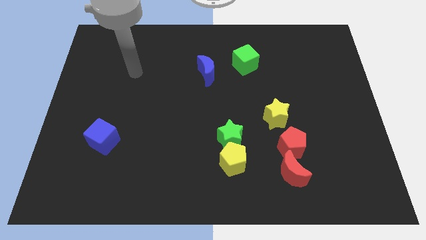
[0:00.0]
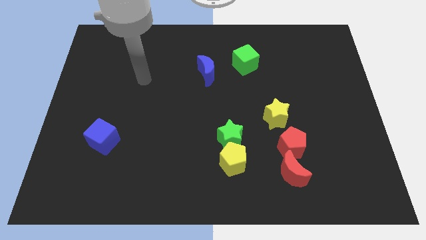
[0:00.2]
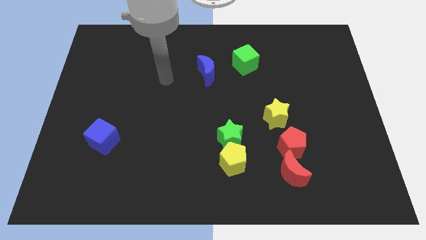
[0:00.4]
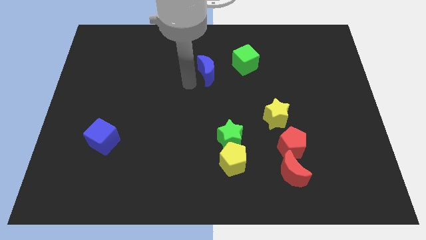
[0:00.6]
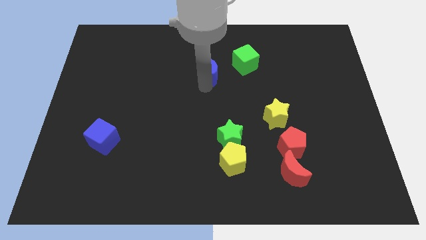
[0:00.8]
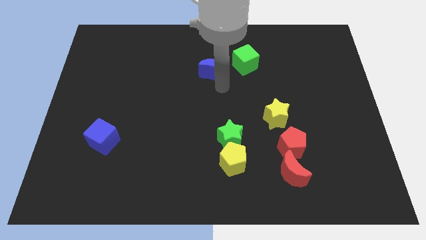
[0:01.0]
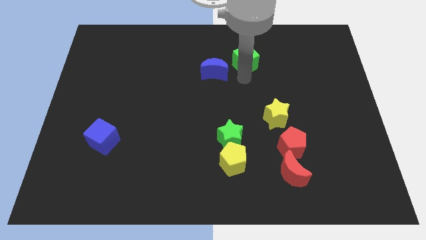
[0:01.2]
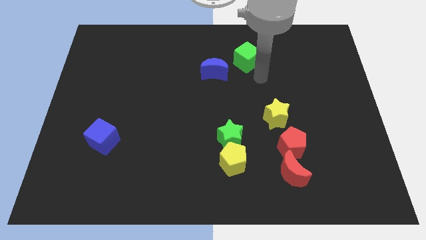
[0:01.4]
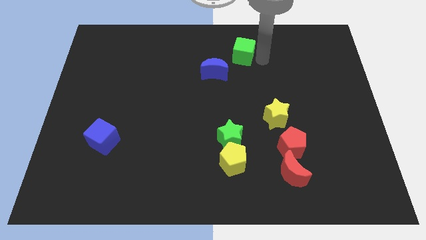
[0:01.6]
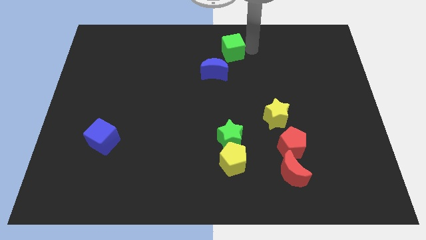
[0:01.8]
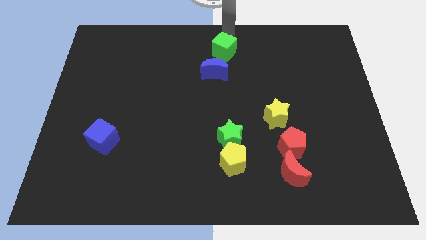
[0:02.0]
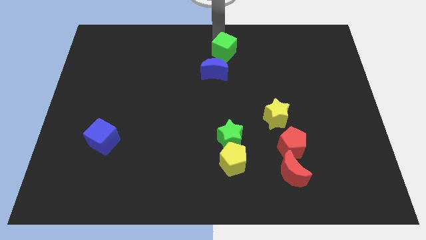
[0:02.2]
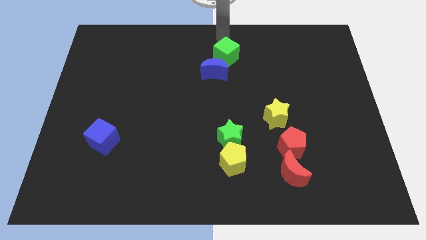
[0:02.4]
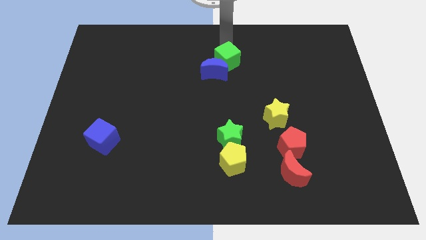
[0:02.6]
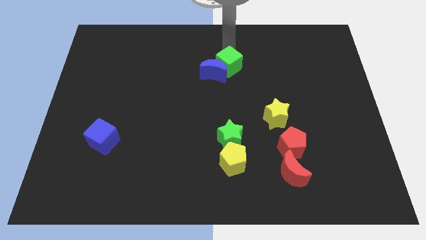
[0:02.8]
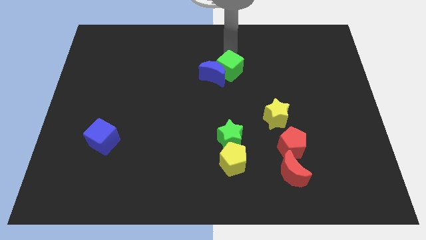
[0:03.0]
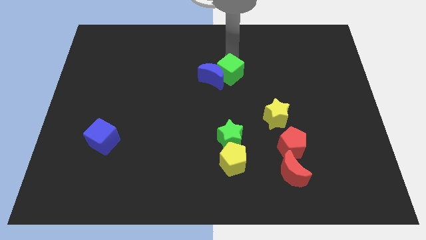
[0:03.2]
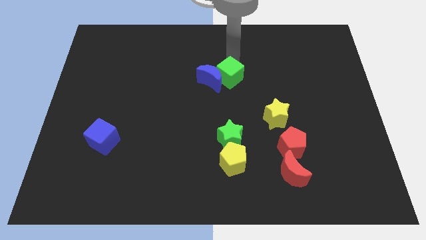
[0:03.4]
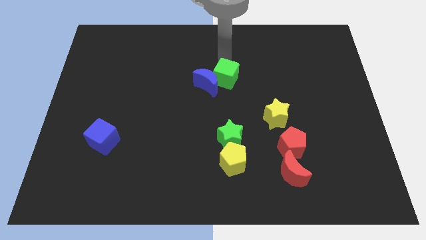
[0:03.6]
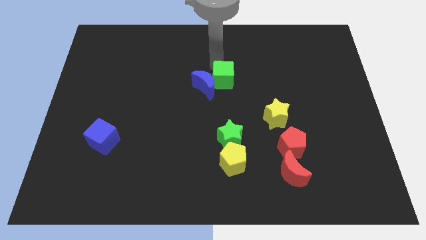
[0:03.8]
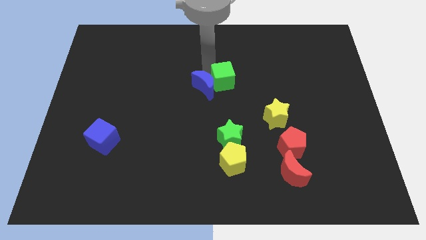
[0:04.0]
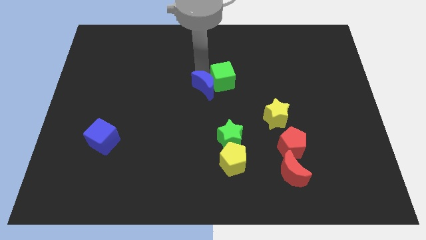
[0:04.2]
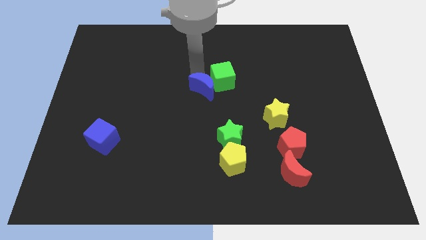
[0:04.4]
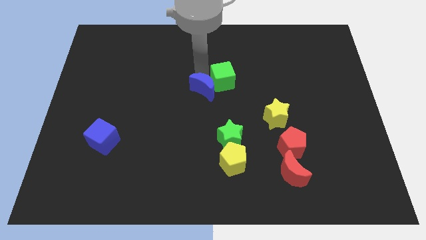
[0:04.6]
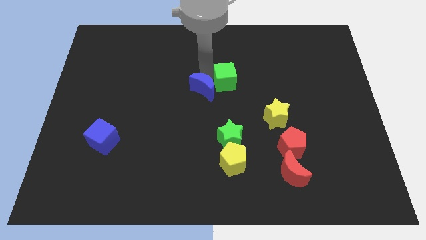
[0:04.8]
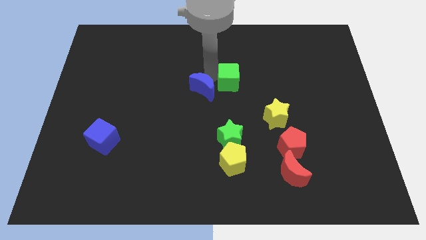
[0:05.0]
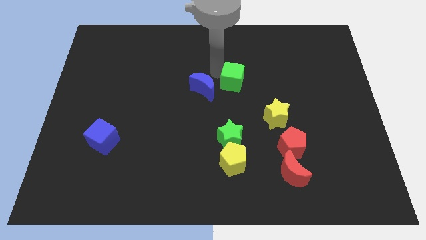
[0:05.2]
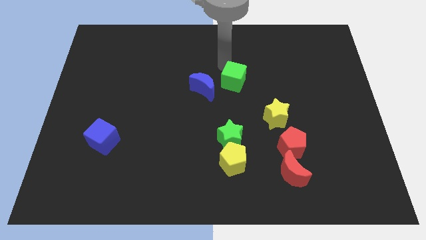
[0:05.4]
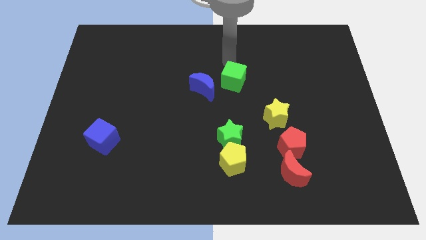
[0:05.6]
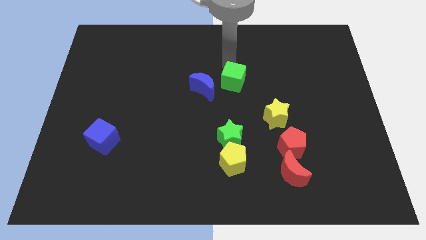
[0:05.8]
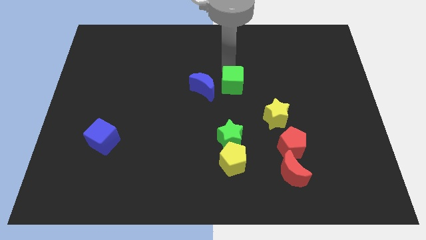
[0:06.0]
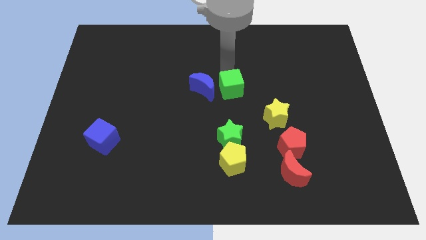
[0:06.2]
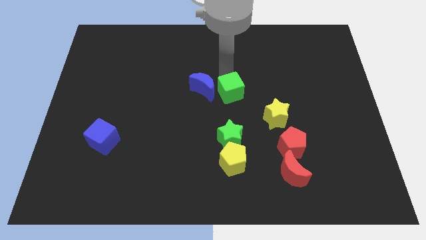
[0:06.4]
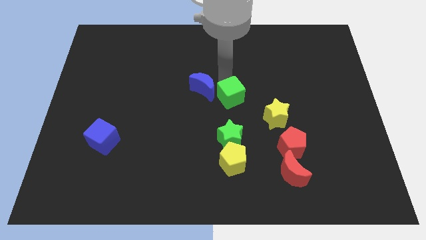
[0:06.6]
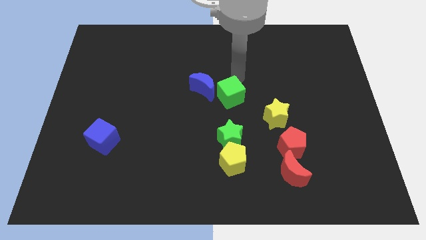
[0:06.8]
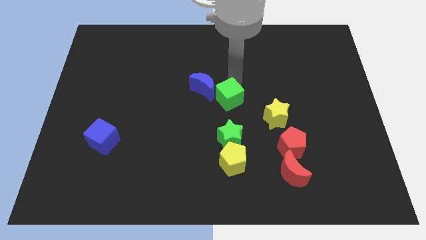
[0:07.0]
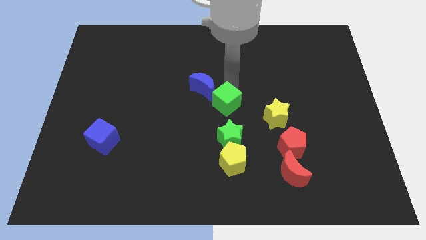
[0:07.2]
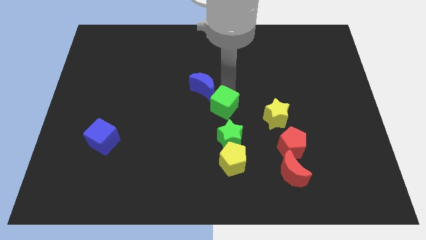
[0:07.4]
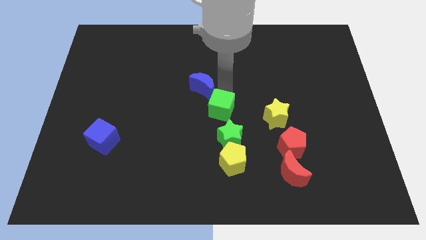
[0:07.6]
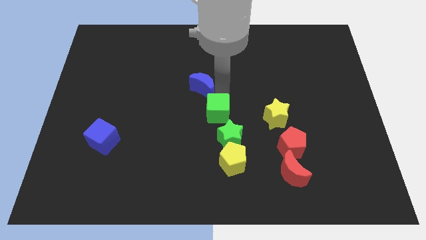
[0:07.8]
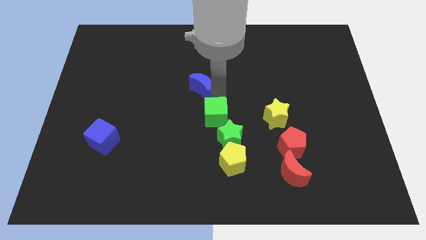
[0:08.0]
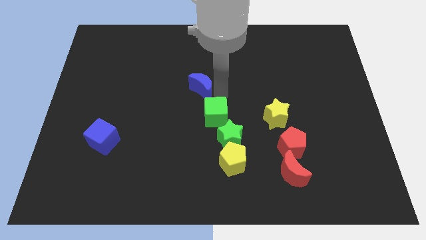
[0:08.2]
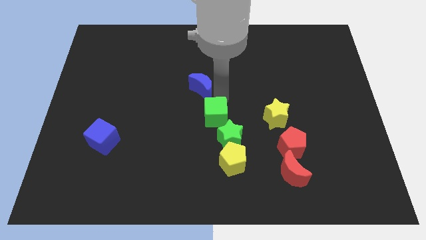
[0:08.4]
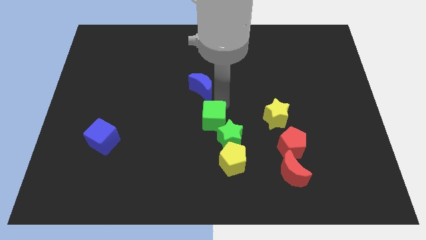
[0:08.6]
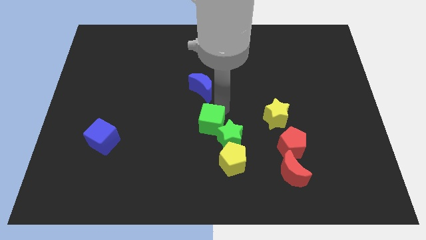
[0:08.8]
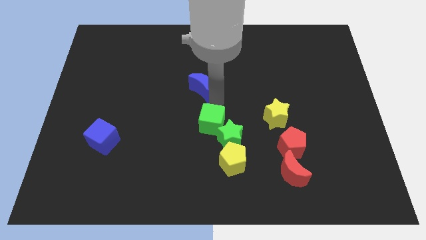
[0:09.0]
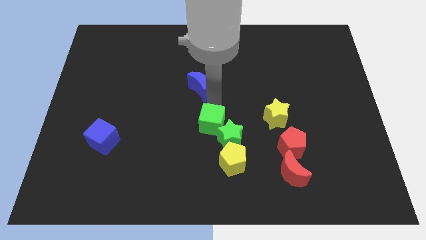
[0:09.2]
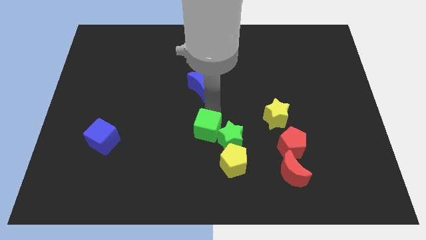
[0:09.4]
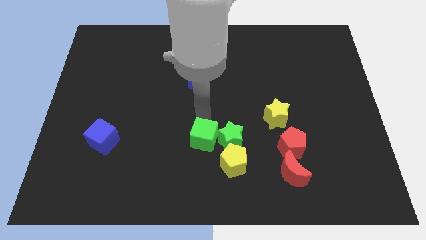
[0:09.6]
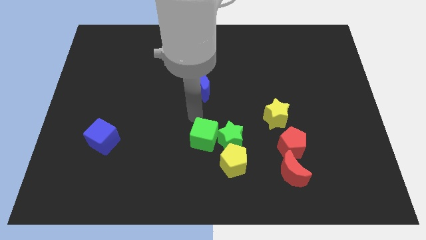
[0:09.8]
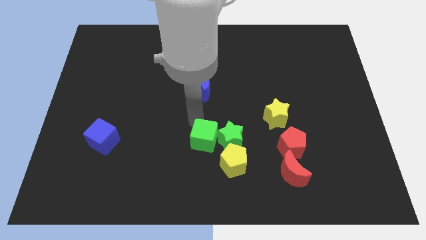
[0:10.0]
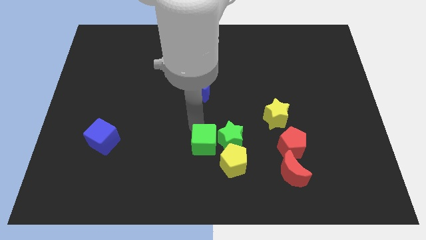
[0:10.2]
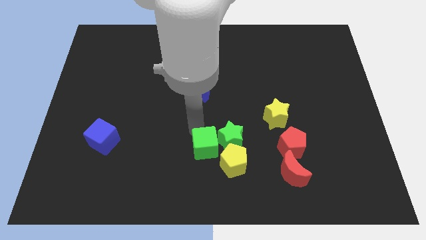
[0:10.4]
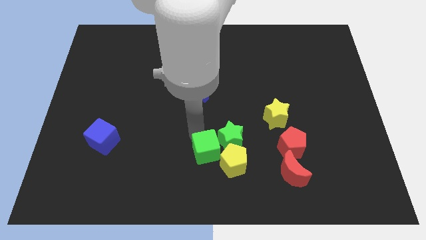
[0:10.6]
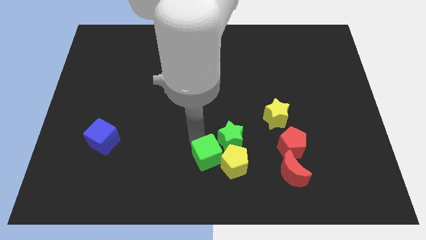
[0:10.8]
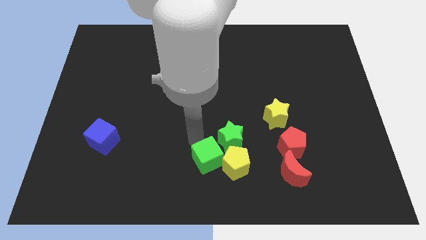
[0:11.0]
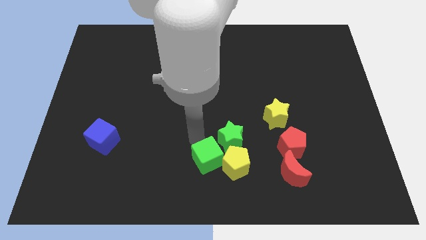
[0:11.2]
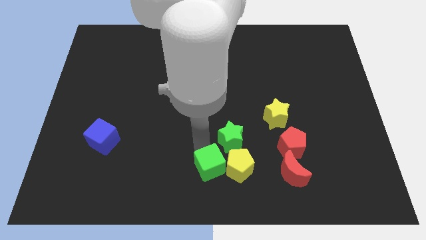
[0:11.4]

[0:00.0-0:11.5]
push the green cube to the bottom side of the green star

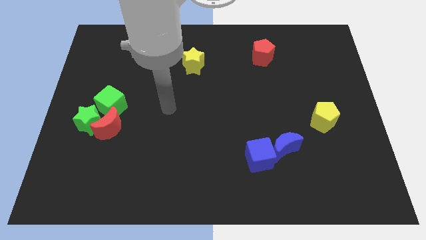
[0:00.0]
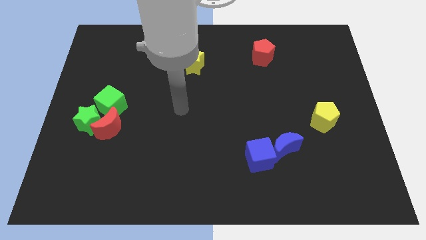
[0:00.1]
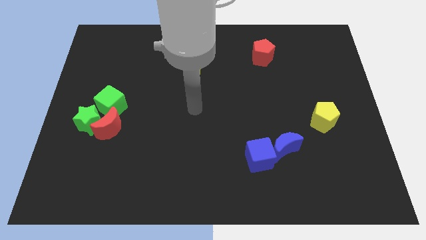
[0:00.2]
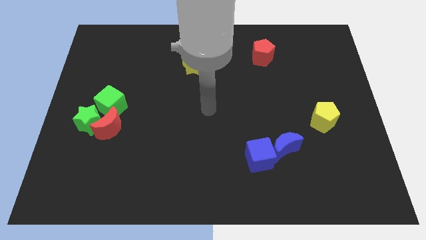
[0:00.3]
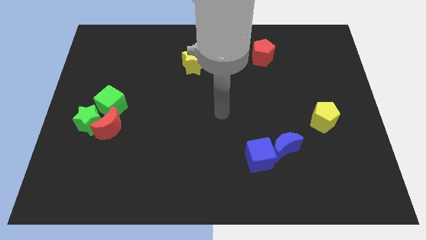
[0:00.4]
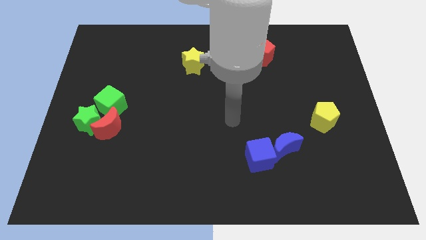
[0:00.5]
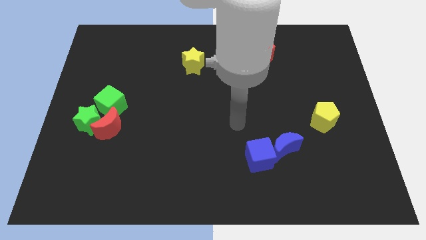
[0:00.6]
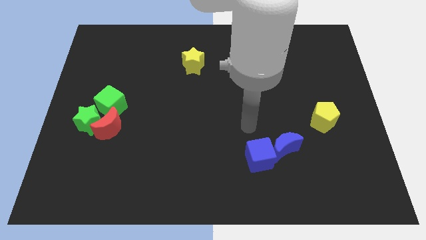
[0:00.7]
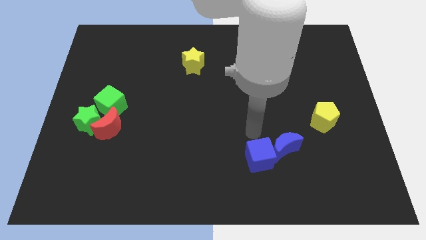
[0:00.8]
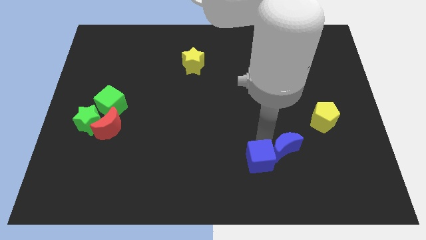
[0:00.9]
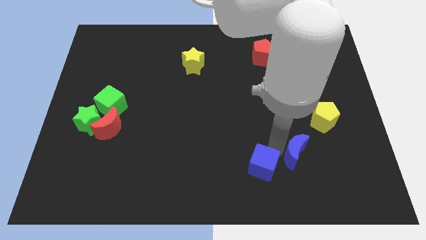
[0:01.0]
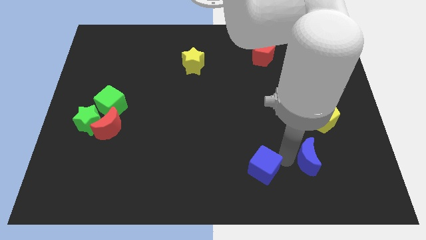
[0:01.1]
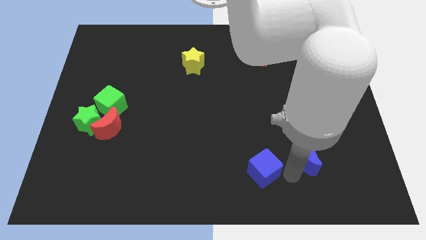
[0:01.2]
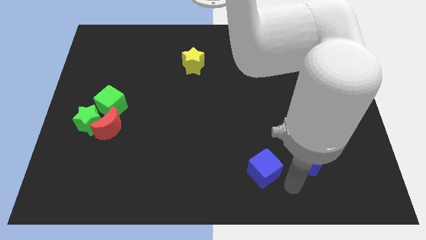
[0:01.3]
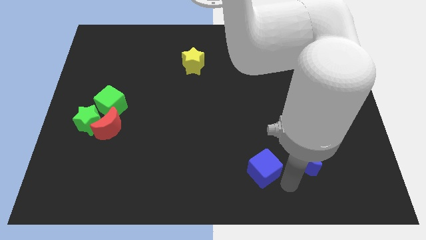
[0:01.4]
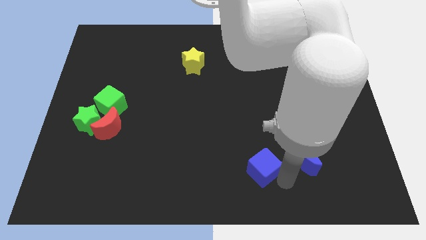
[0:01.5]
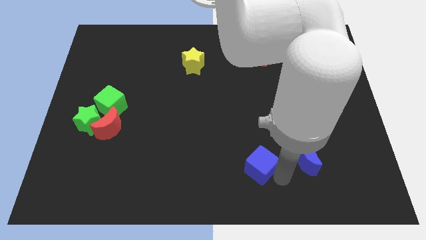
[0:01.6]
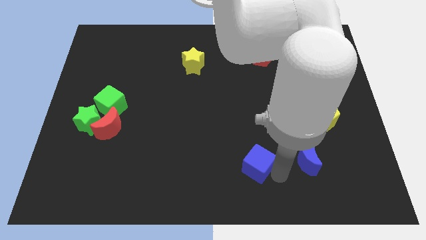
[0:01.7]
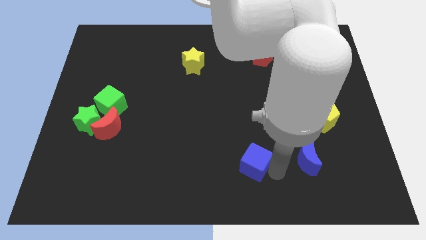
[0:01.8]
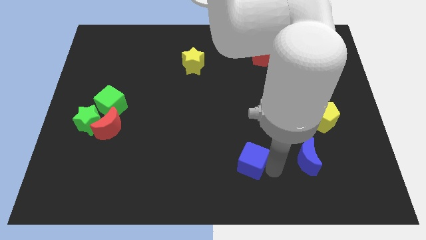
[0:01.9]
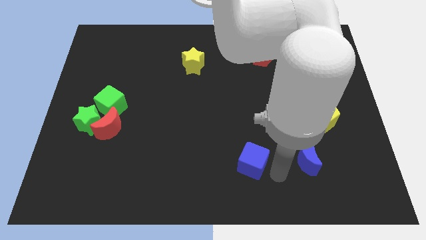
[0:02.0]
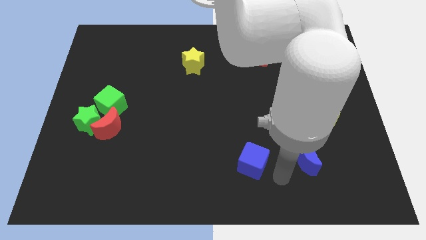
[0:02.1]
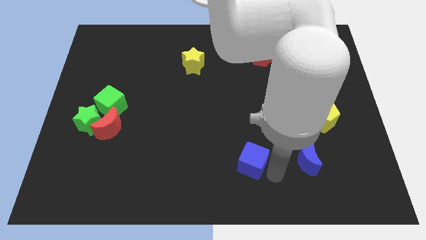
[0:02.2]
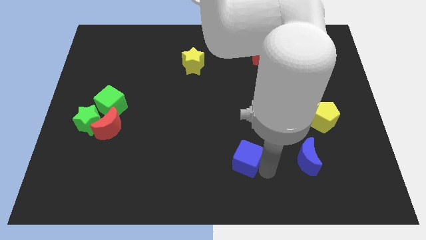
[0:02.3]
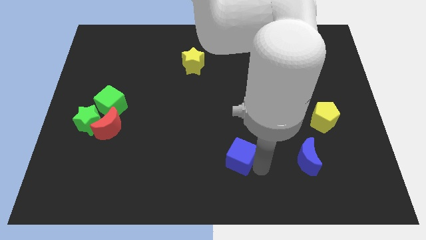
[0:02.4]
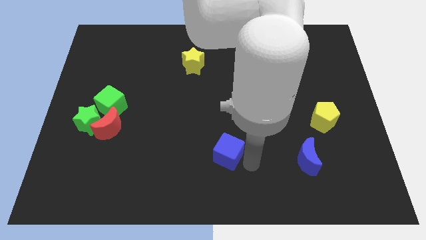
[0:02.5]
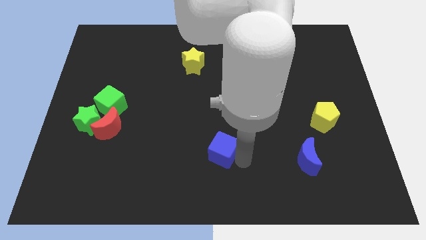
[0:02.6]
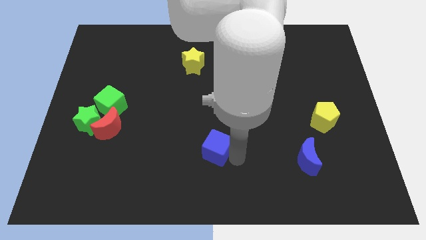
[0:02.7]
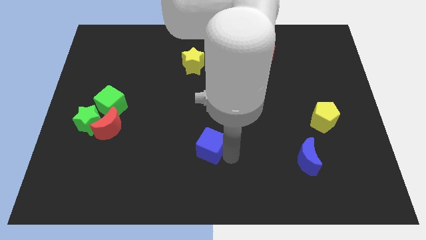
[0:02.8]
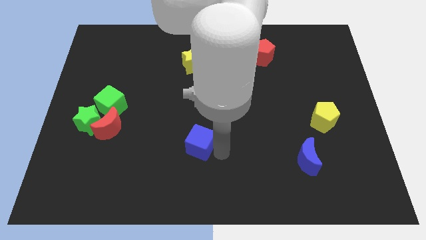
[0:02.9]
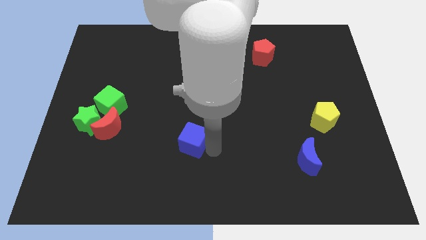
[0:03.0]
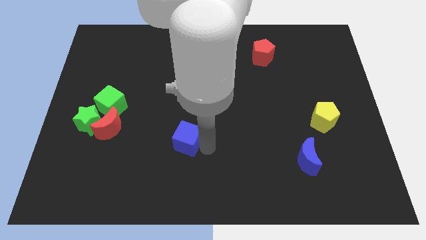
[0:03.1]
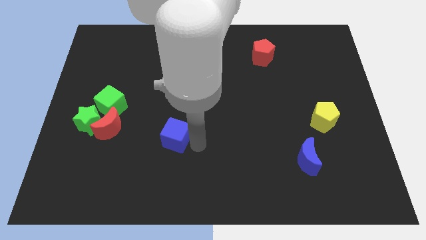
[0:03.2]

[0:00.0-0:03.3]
put the blue cube to the right of the red moon
